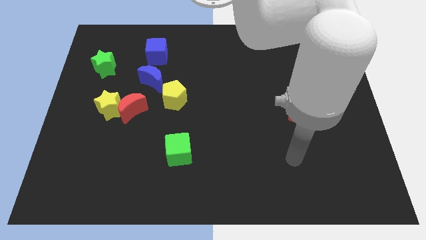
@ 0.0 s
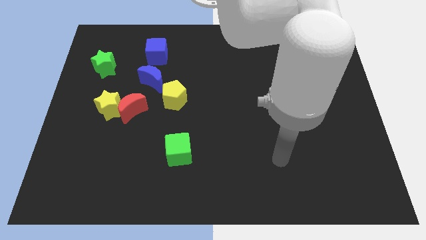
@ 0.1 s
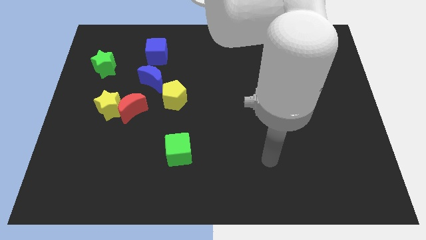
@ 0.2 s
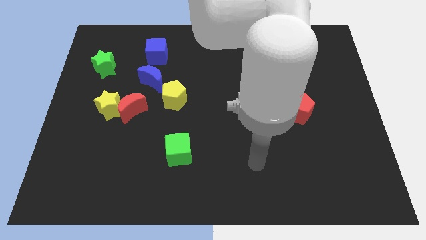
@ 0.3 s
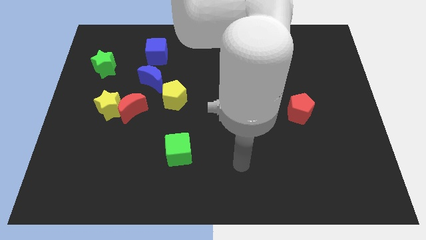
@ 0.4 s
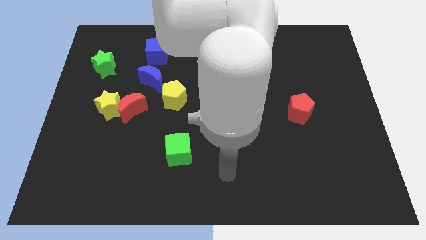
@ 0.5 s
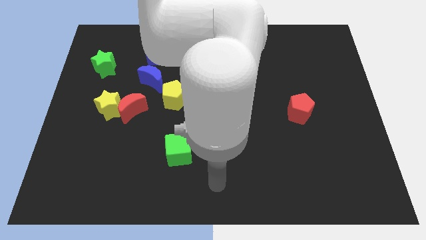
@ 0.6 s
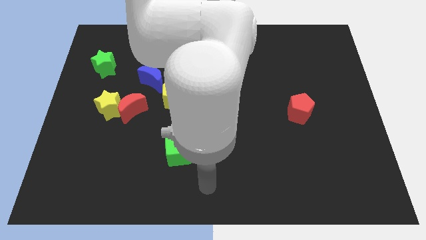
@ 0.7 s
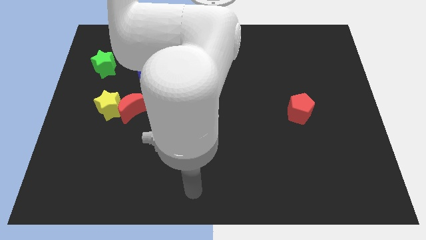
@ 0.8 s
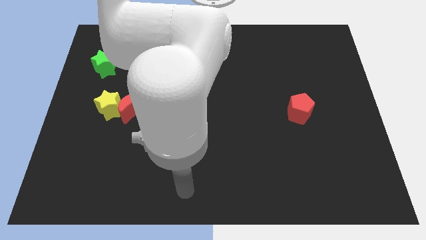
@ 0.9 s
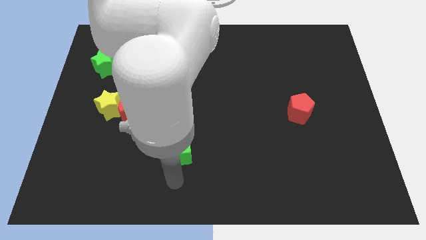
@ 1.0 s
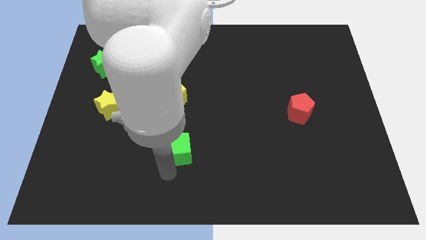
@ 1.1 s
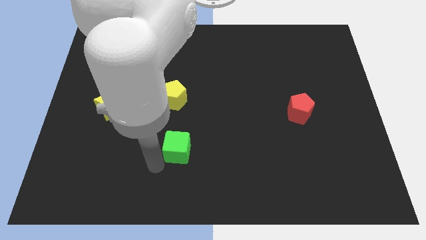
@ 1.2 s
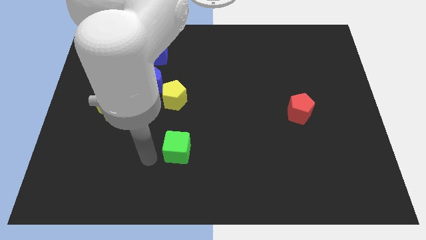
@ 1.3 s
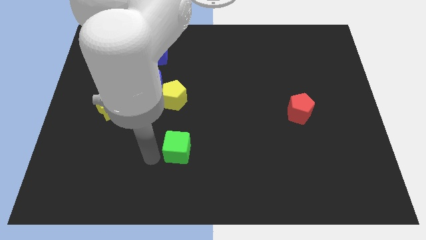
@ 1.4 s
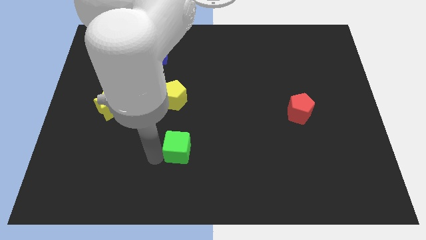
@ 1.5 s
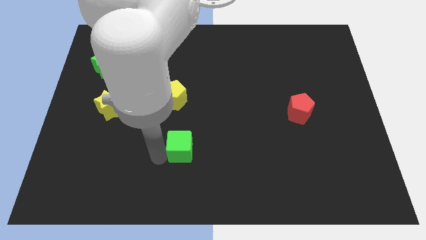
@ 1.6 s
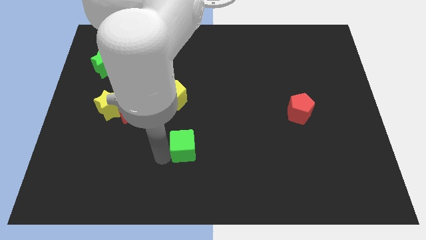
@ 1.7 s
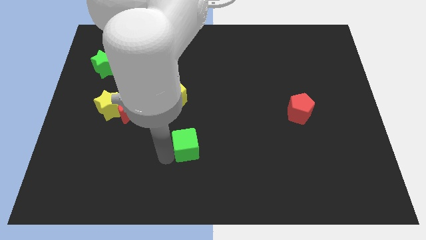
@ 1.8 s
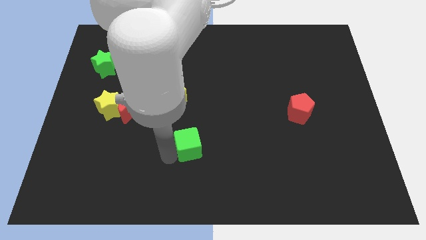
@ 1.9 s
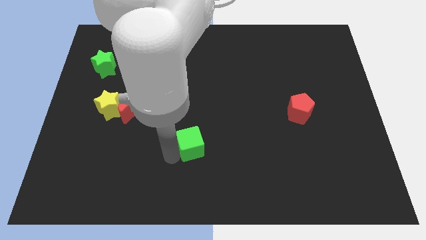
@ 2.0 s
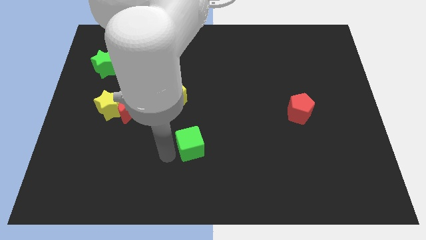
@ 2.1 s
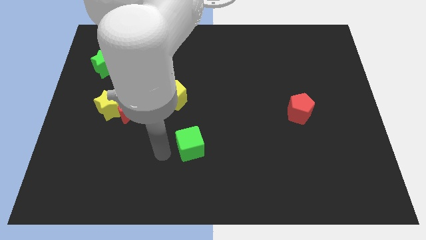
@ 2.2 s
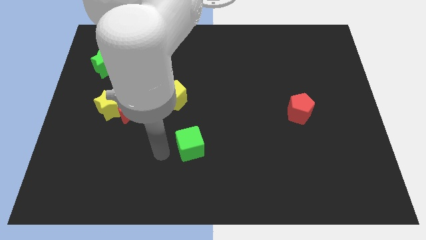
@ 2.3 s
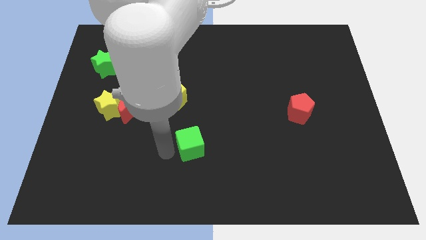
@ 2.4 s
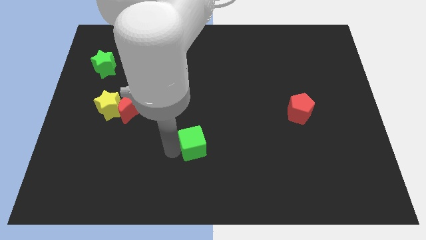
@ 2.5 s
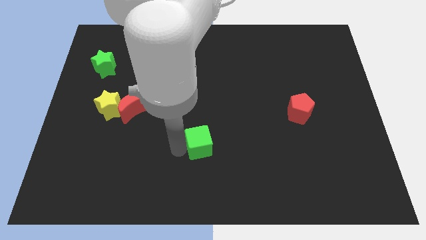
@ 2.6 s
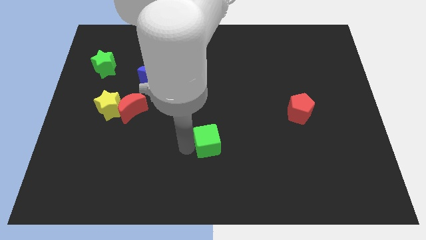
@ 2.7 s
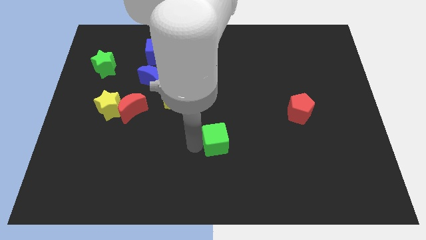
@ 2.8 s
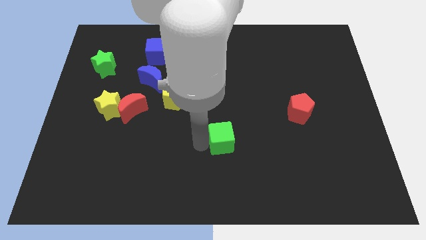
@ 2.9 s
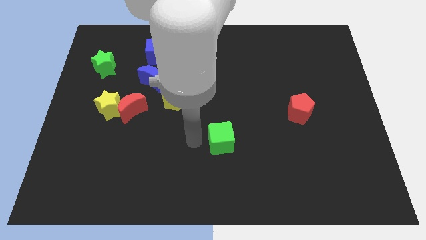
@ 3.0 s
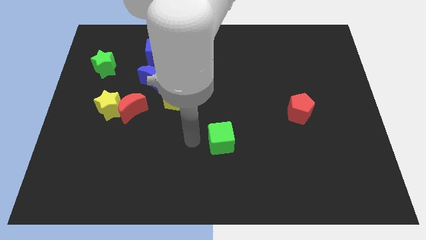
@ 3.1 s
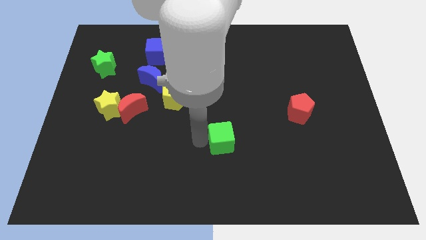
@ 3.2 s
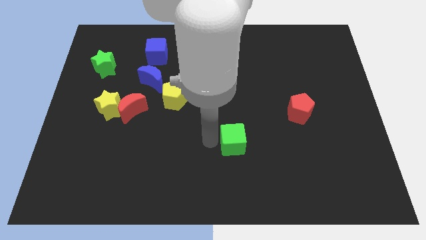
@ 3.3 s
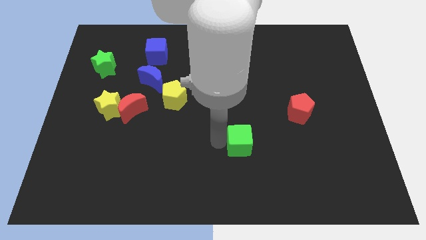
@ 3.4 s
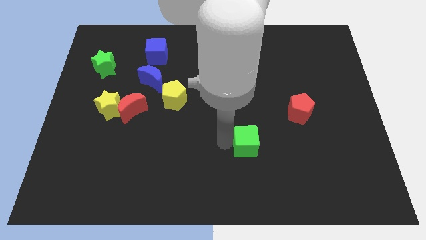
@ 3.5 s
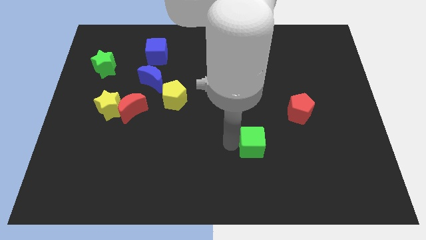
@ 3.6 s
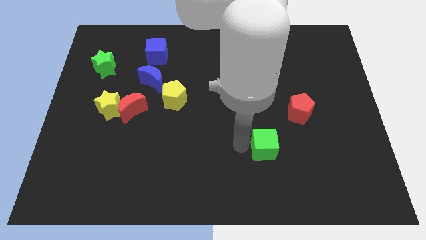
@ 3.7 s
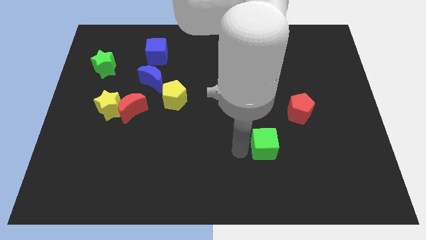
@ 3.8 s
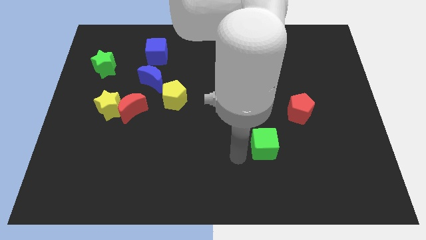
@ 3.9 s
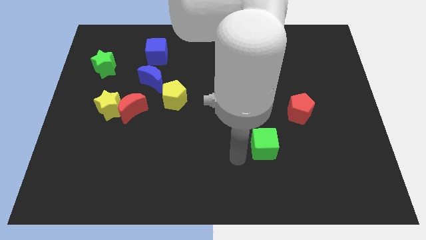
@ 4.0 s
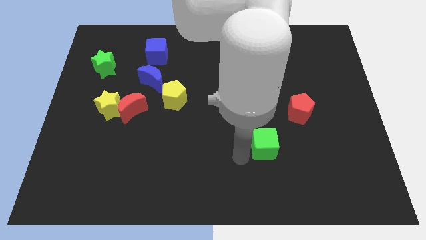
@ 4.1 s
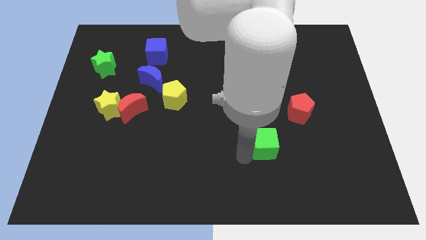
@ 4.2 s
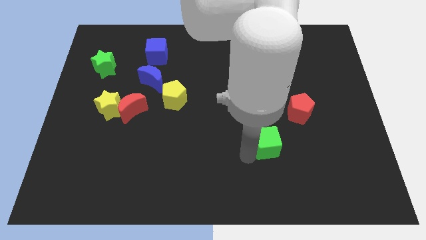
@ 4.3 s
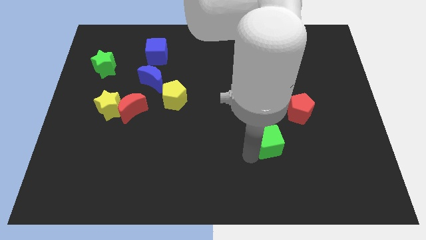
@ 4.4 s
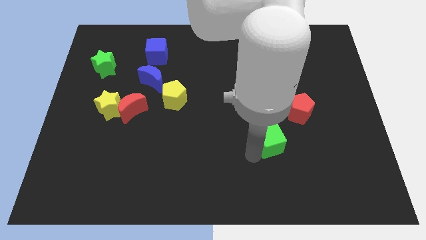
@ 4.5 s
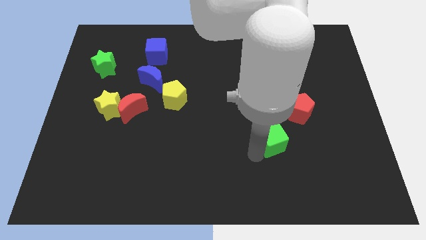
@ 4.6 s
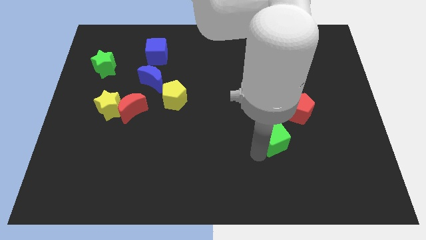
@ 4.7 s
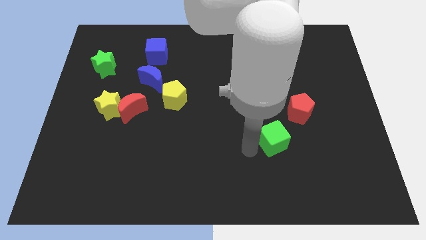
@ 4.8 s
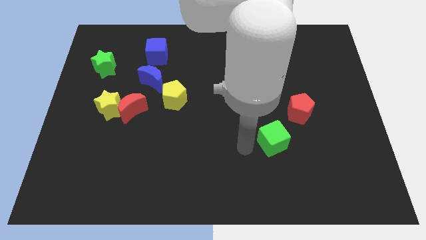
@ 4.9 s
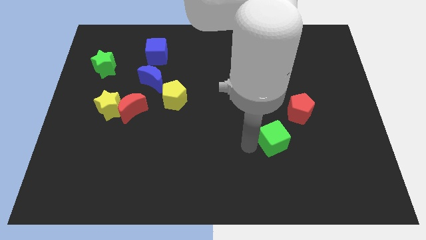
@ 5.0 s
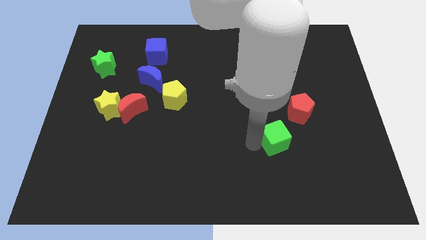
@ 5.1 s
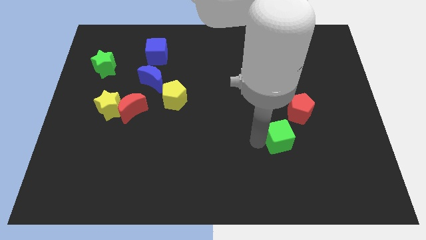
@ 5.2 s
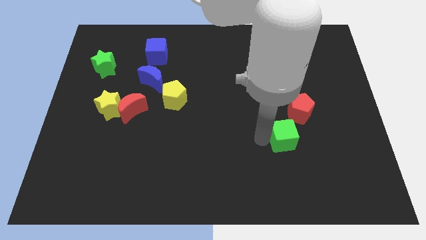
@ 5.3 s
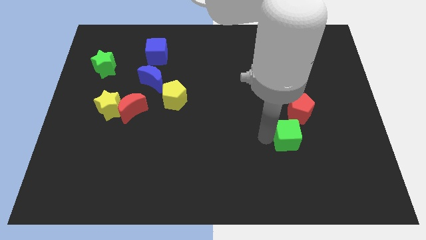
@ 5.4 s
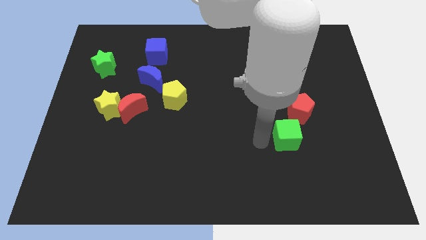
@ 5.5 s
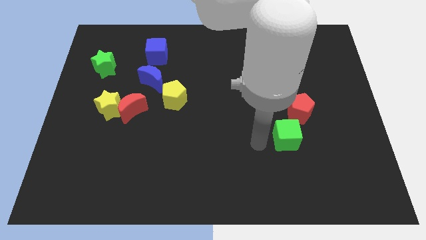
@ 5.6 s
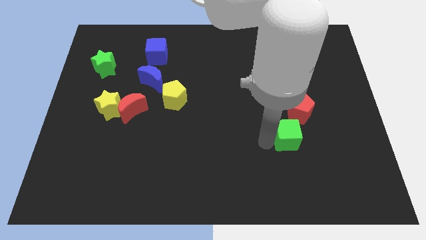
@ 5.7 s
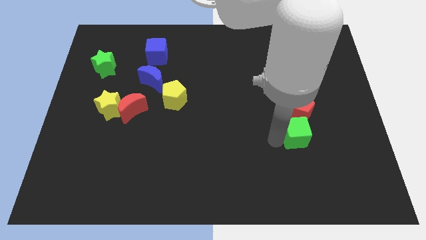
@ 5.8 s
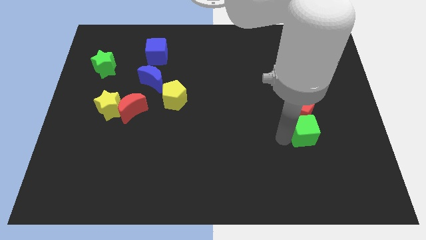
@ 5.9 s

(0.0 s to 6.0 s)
move the green cube to the bottom right side of the red pentagon

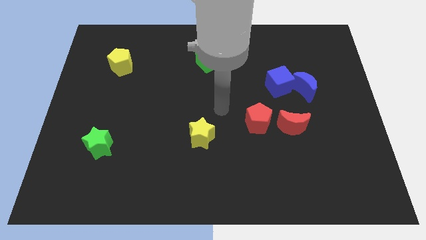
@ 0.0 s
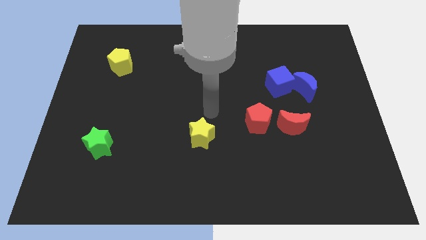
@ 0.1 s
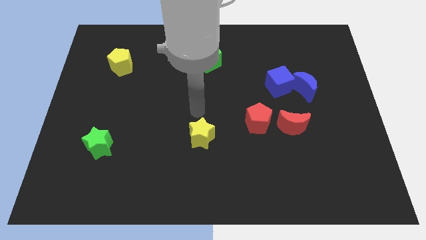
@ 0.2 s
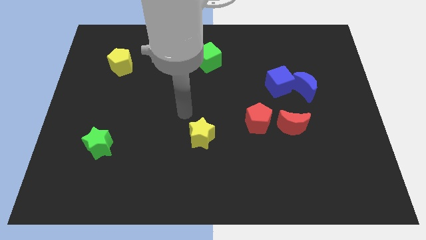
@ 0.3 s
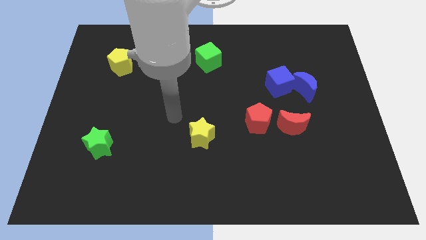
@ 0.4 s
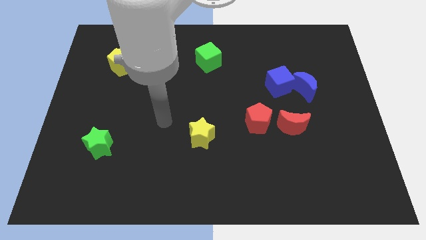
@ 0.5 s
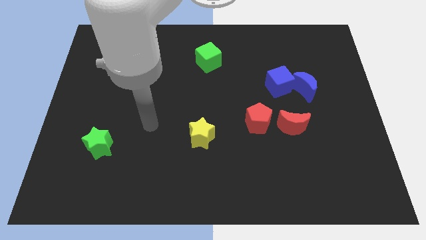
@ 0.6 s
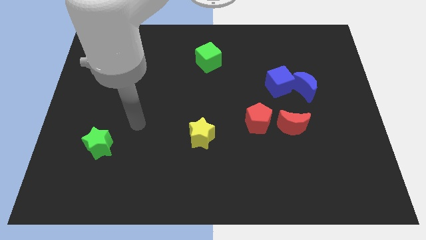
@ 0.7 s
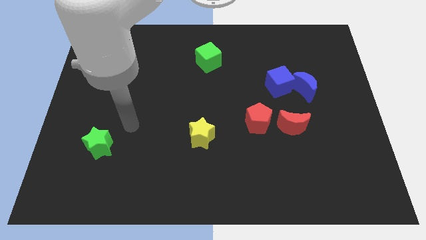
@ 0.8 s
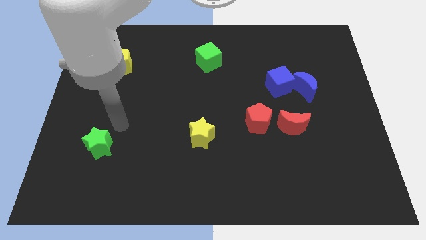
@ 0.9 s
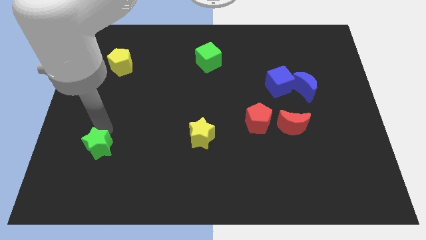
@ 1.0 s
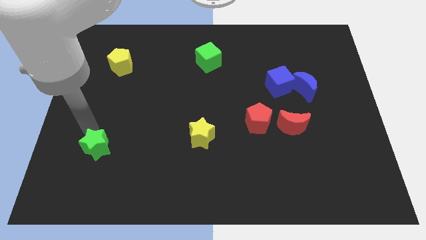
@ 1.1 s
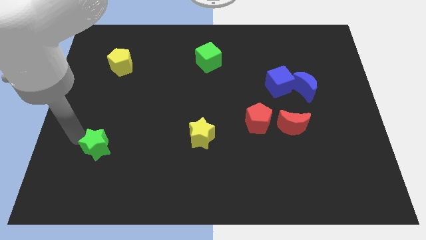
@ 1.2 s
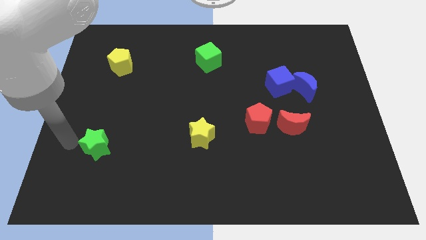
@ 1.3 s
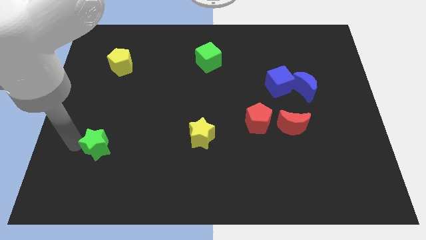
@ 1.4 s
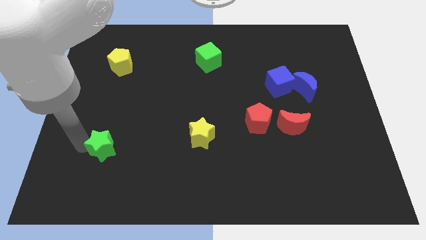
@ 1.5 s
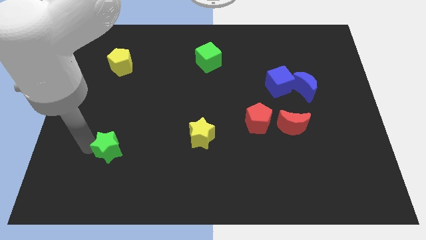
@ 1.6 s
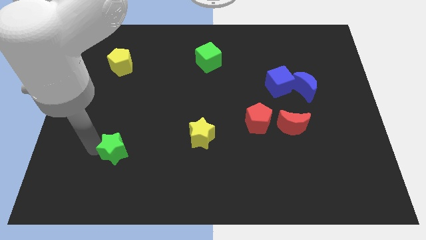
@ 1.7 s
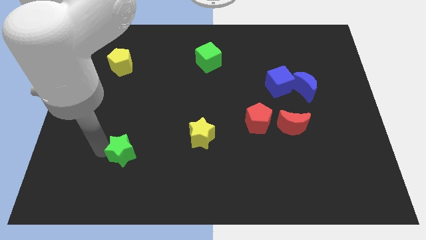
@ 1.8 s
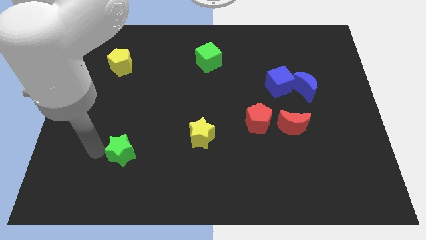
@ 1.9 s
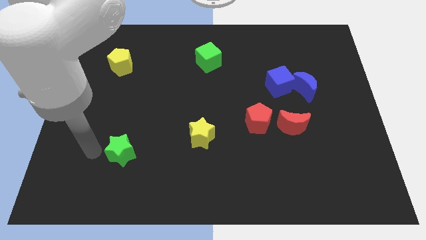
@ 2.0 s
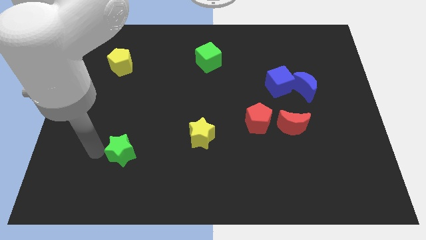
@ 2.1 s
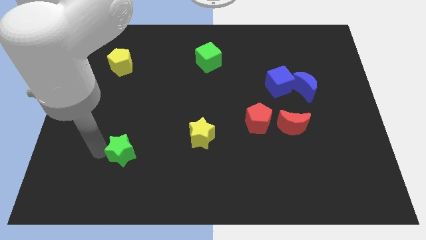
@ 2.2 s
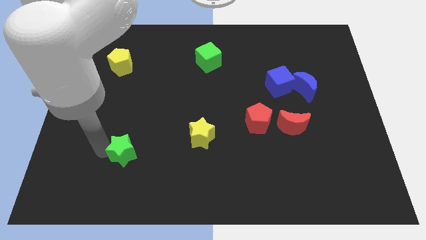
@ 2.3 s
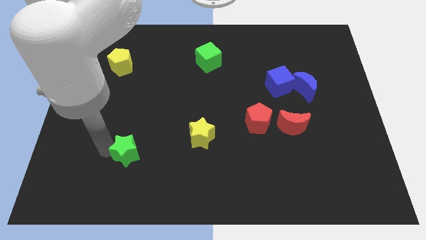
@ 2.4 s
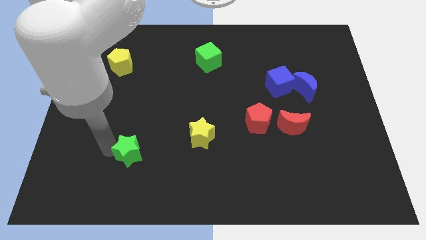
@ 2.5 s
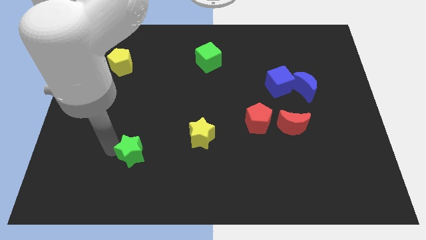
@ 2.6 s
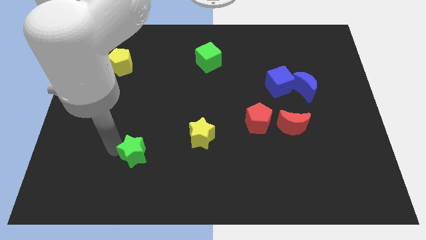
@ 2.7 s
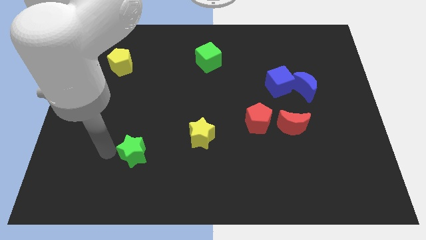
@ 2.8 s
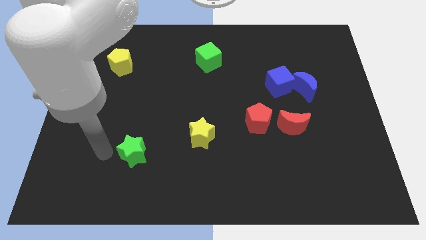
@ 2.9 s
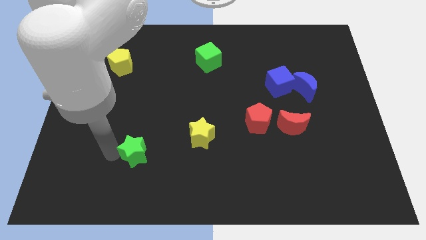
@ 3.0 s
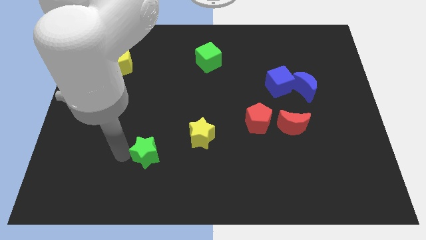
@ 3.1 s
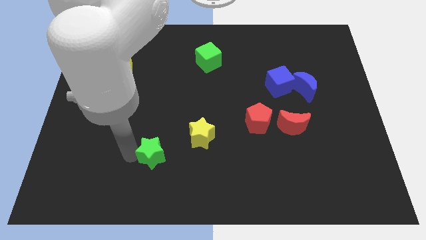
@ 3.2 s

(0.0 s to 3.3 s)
push the green star to the bottom left side of the yellow star
